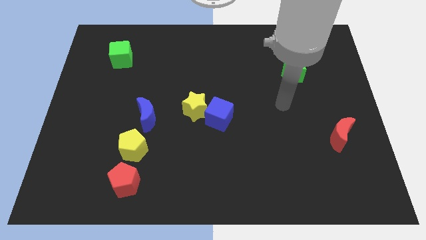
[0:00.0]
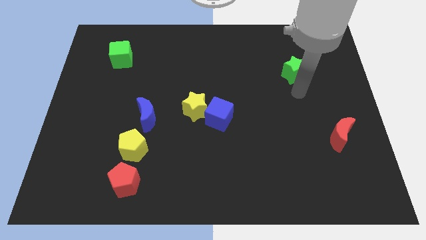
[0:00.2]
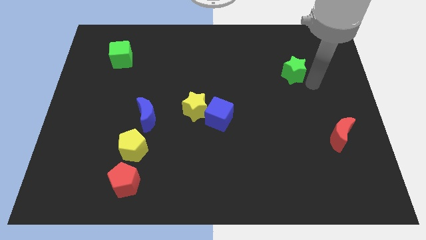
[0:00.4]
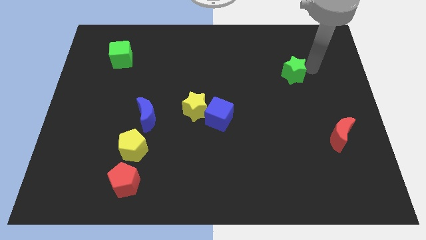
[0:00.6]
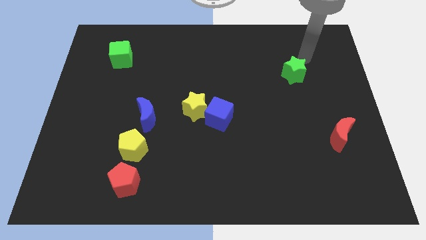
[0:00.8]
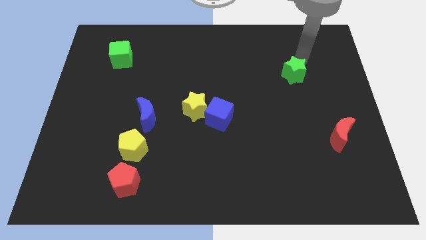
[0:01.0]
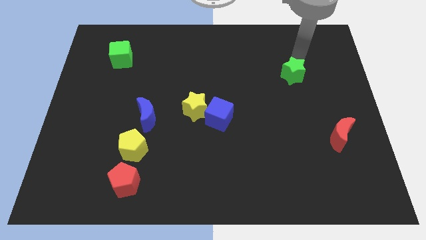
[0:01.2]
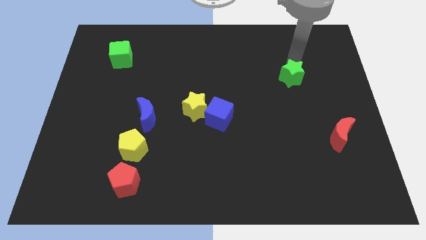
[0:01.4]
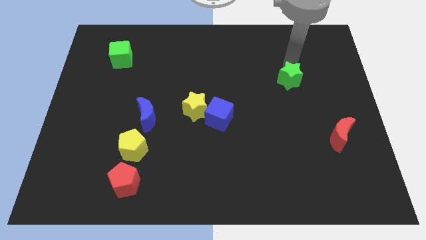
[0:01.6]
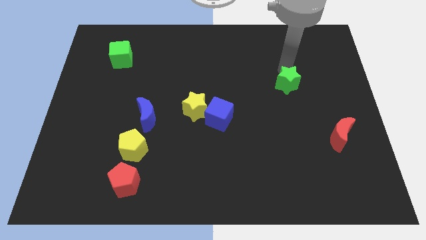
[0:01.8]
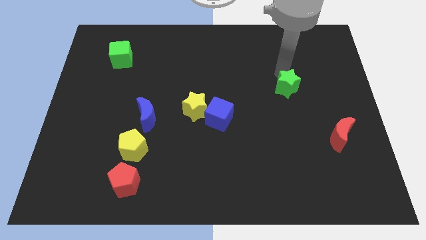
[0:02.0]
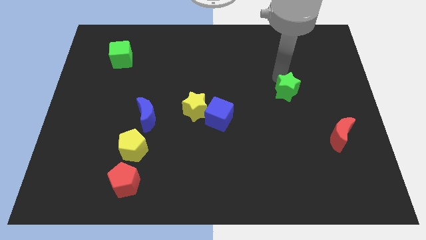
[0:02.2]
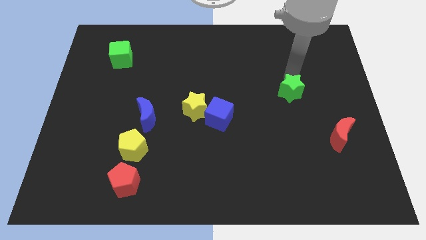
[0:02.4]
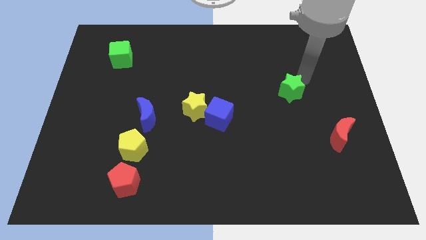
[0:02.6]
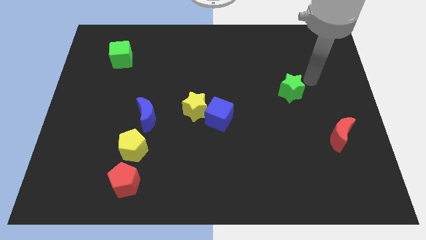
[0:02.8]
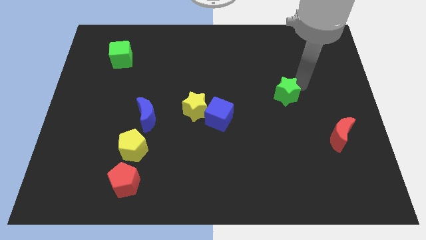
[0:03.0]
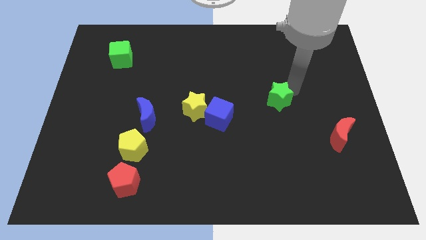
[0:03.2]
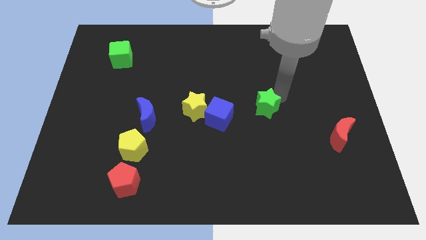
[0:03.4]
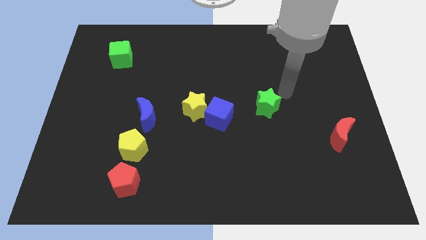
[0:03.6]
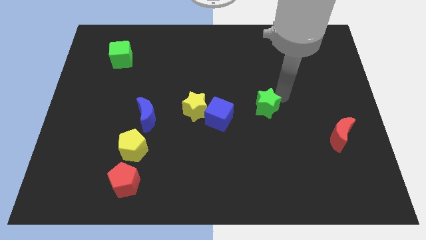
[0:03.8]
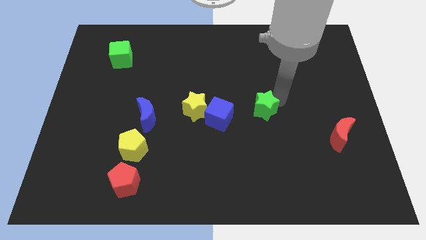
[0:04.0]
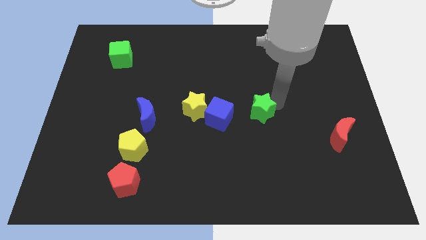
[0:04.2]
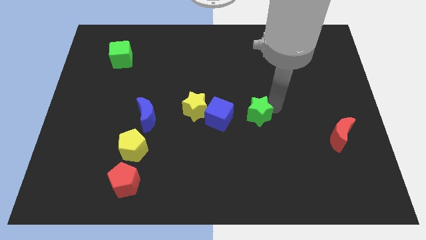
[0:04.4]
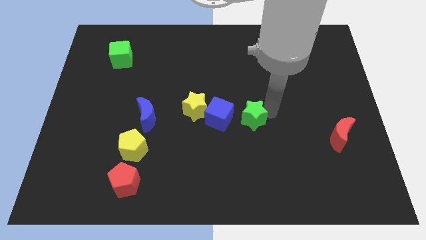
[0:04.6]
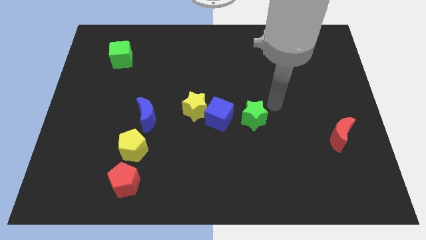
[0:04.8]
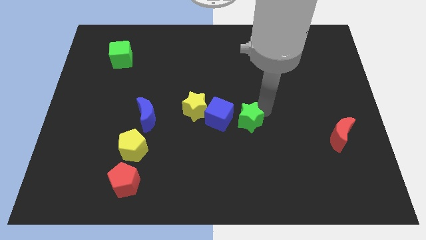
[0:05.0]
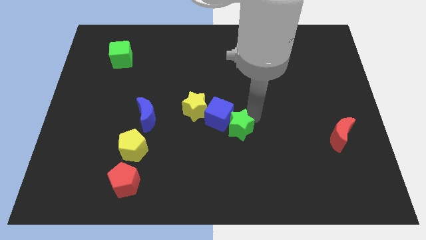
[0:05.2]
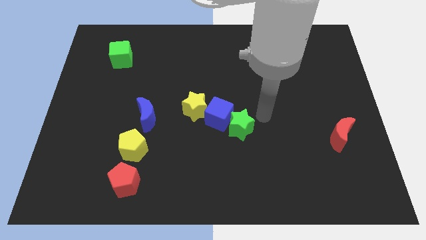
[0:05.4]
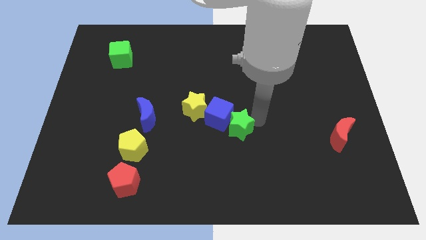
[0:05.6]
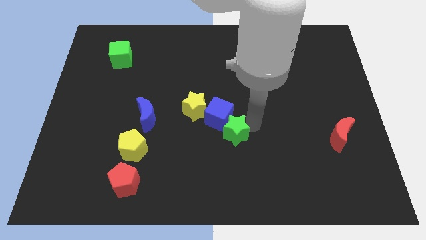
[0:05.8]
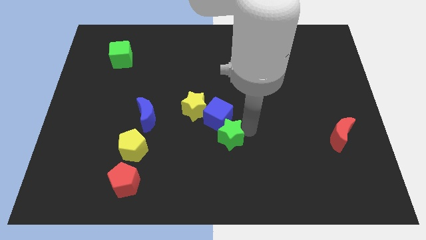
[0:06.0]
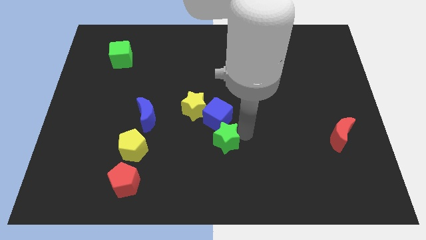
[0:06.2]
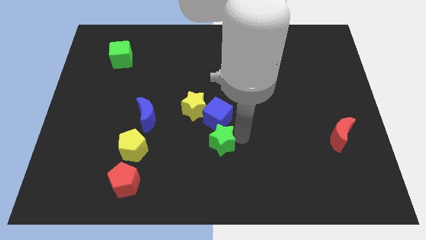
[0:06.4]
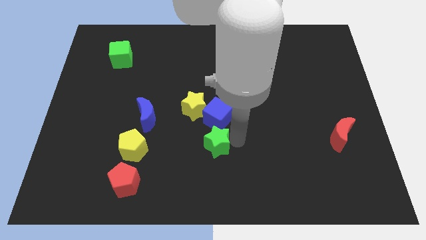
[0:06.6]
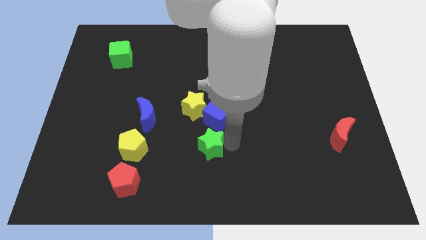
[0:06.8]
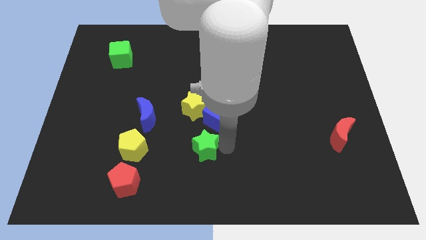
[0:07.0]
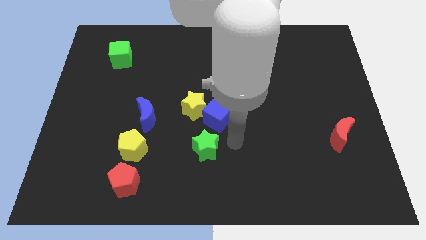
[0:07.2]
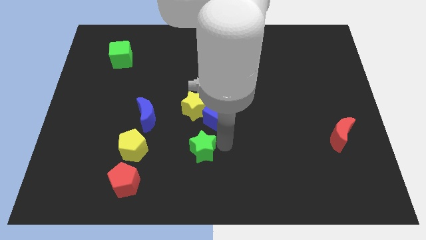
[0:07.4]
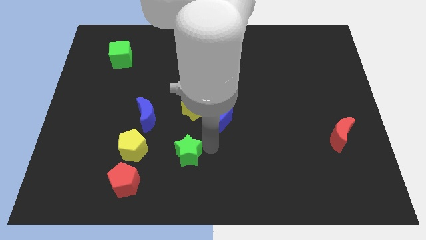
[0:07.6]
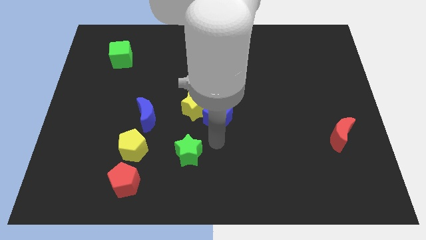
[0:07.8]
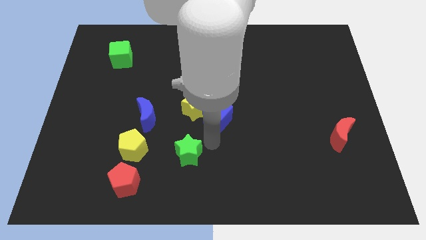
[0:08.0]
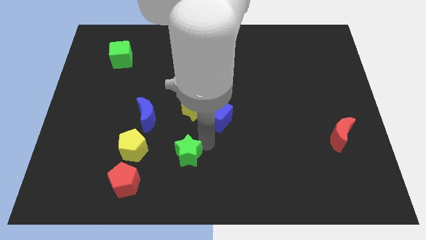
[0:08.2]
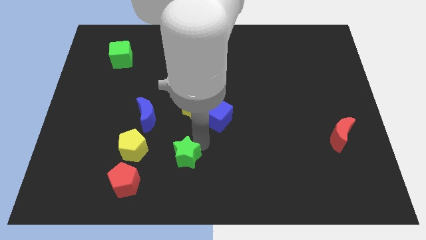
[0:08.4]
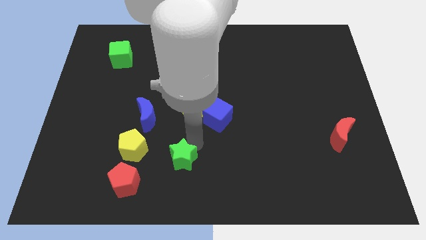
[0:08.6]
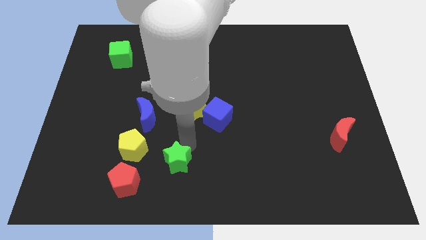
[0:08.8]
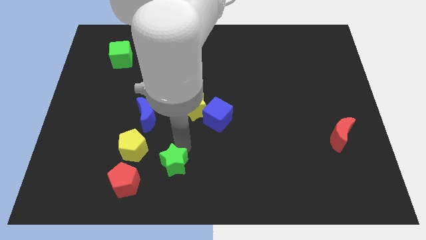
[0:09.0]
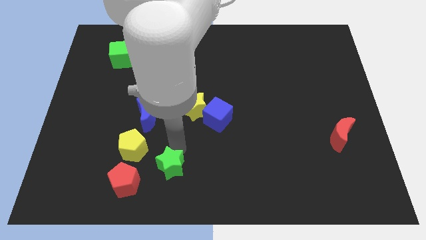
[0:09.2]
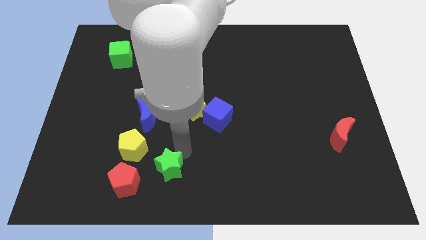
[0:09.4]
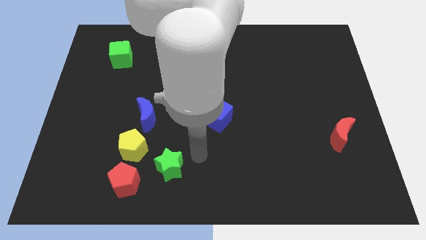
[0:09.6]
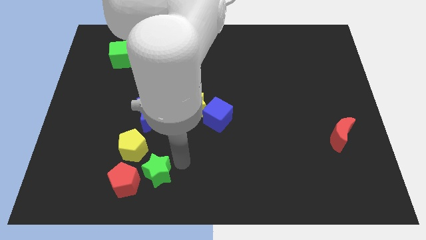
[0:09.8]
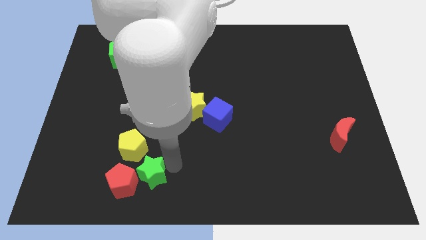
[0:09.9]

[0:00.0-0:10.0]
move the green star close to the red pentagon

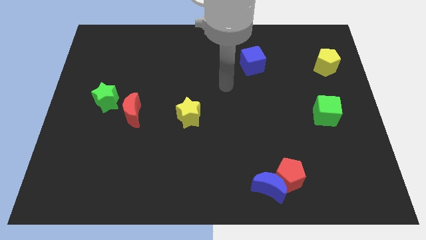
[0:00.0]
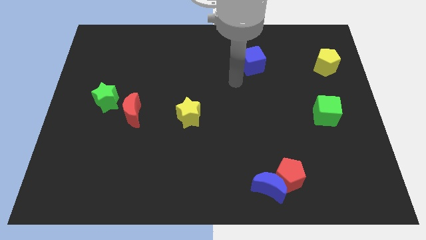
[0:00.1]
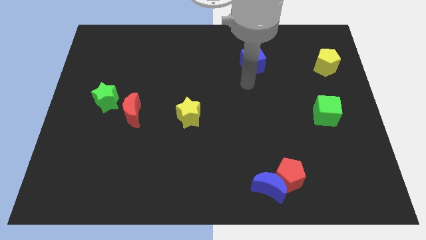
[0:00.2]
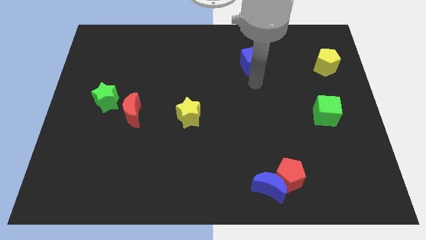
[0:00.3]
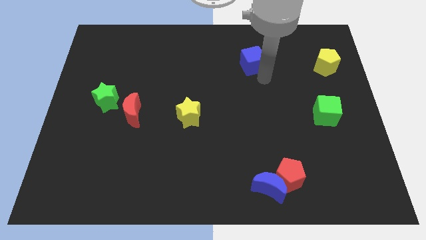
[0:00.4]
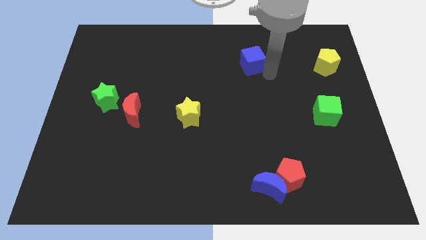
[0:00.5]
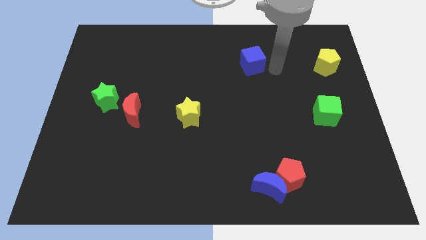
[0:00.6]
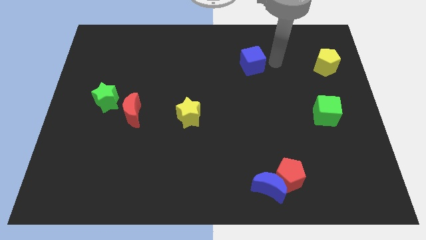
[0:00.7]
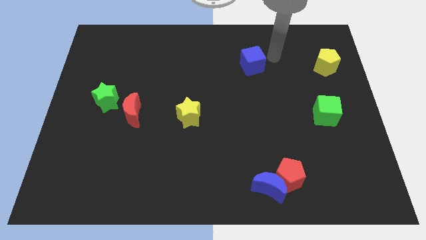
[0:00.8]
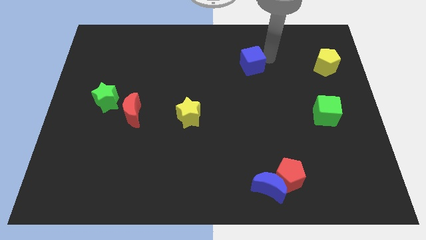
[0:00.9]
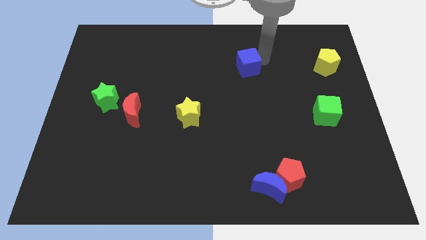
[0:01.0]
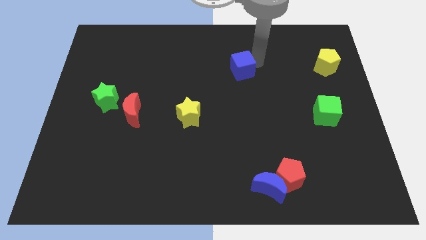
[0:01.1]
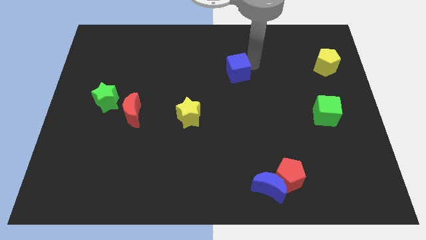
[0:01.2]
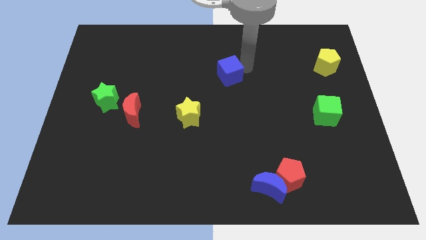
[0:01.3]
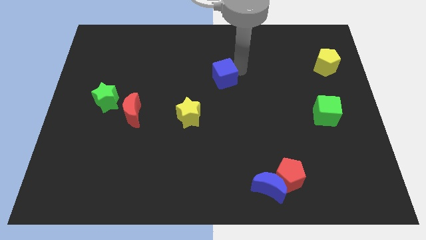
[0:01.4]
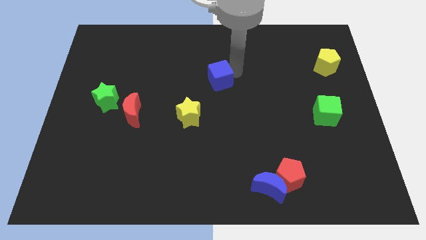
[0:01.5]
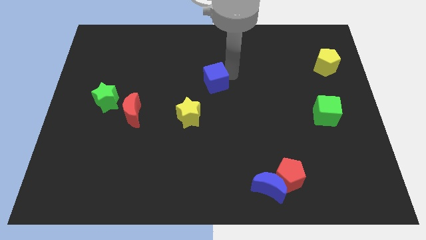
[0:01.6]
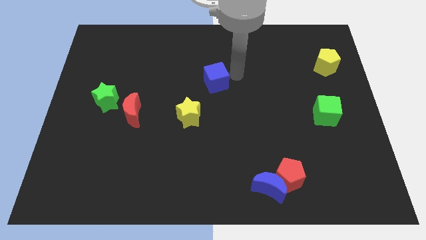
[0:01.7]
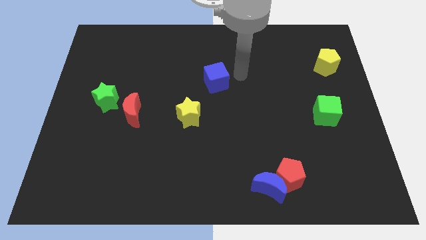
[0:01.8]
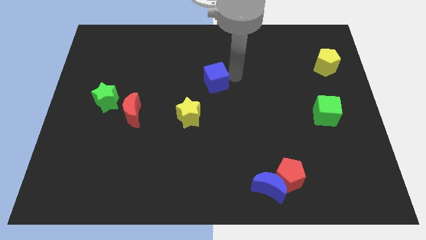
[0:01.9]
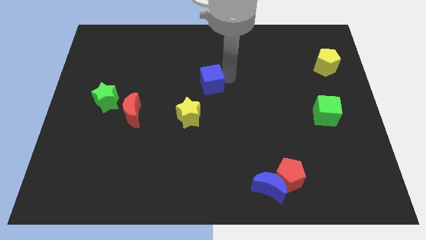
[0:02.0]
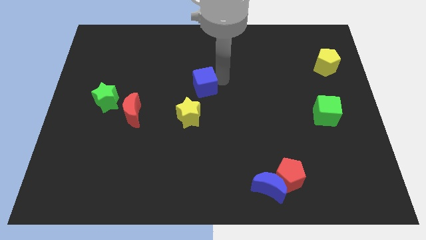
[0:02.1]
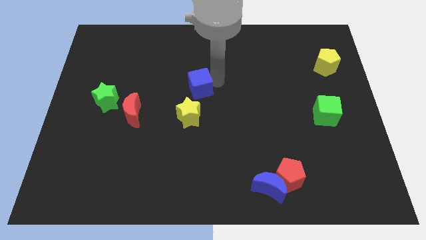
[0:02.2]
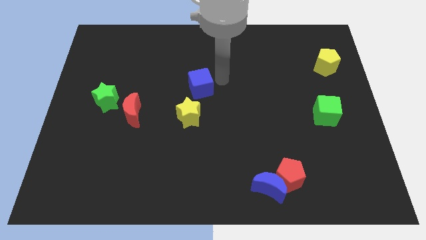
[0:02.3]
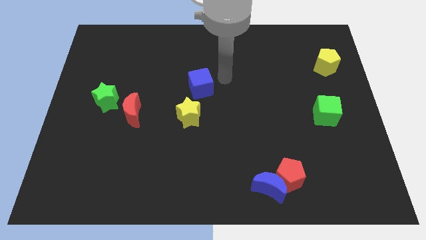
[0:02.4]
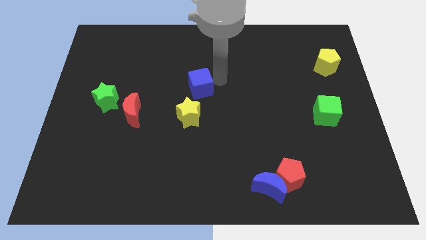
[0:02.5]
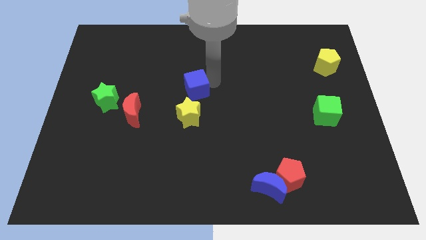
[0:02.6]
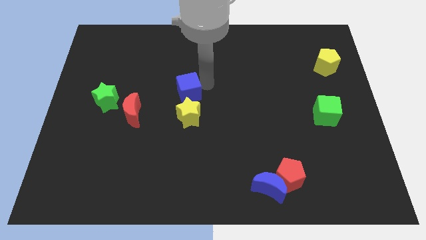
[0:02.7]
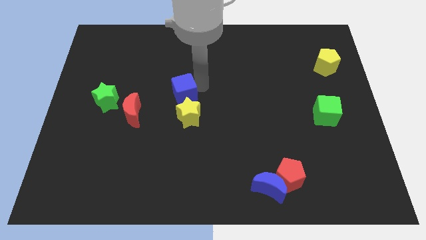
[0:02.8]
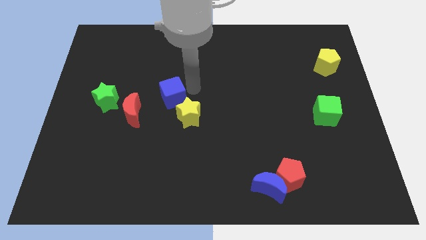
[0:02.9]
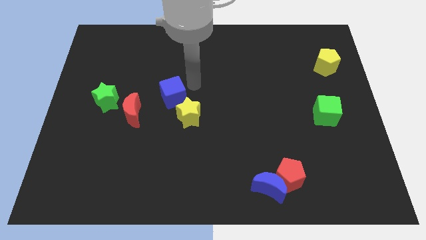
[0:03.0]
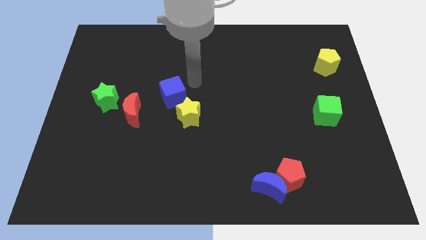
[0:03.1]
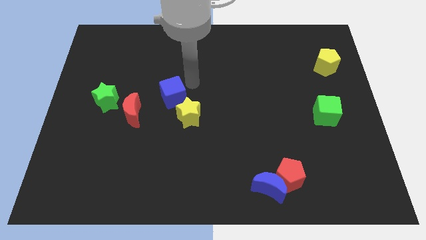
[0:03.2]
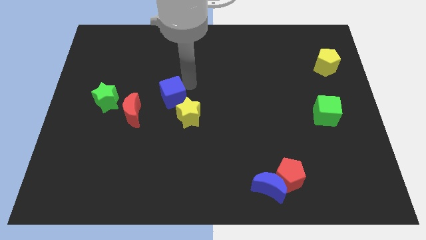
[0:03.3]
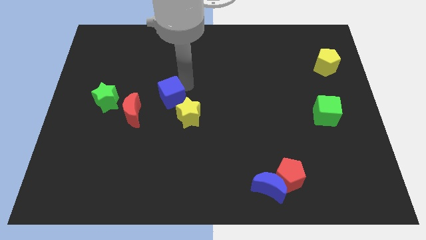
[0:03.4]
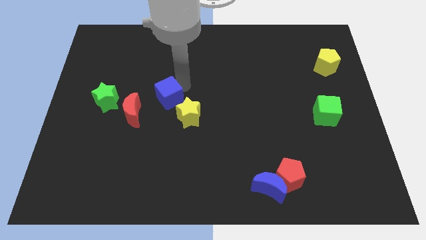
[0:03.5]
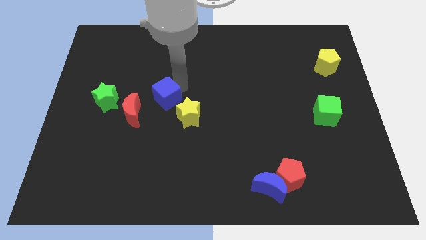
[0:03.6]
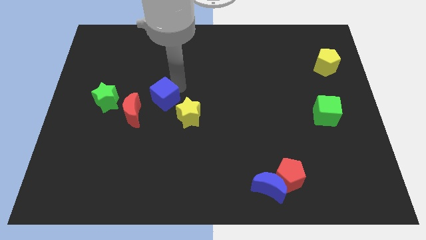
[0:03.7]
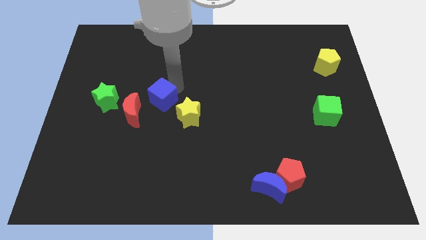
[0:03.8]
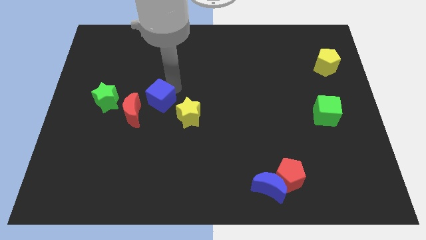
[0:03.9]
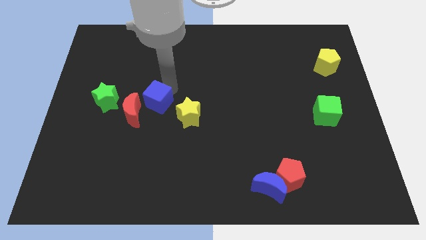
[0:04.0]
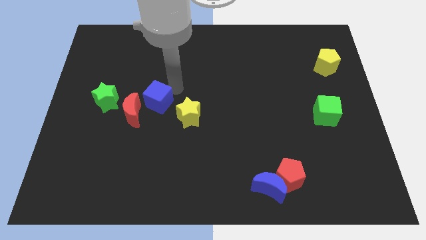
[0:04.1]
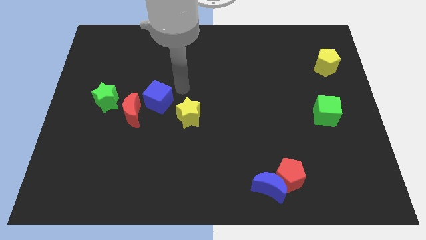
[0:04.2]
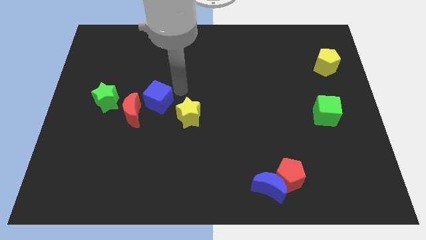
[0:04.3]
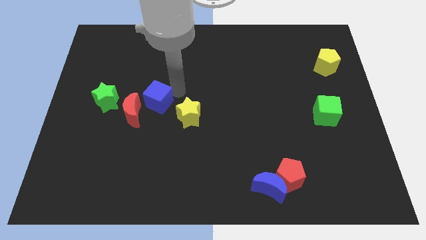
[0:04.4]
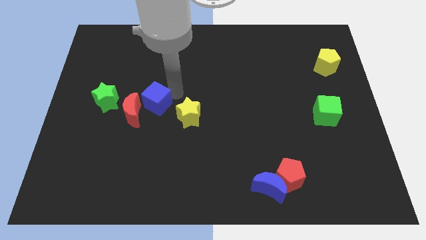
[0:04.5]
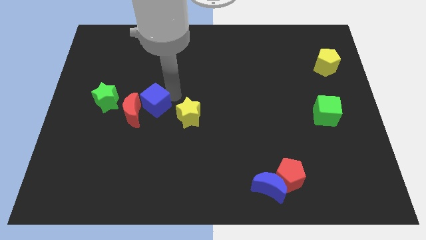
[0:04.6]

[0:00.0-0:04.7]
slide the blue cube next to the red moon
